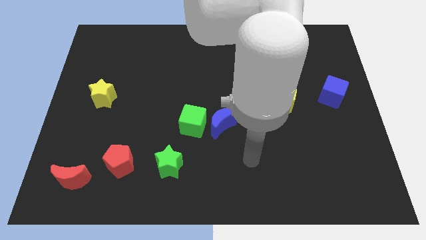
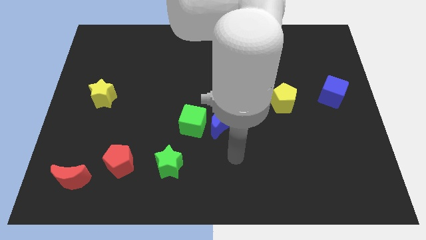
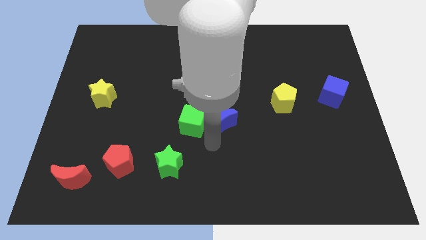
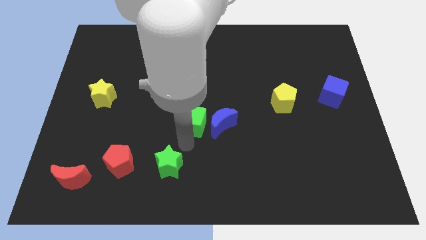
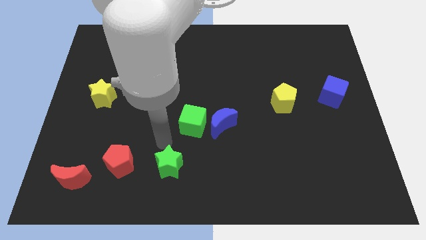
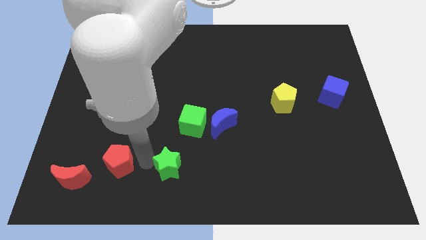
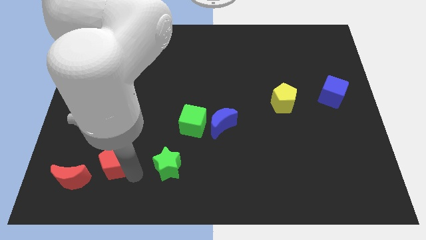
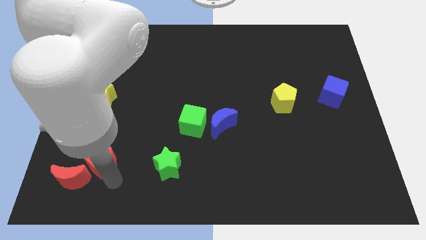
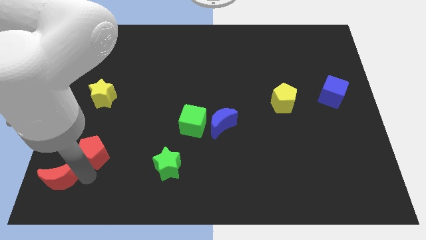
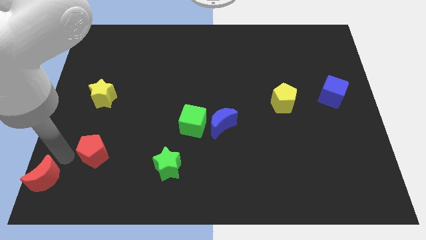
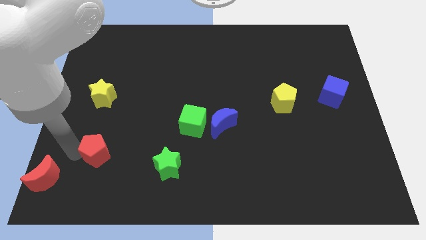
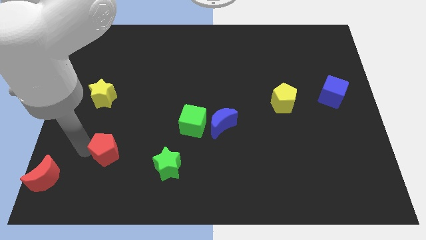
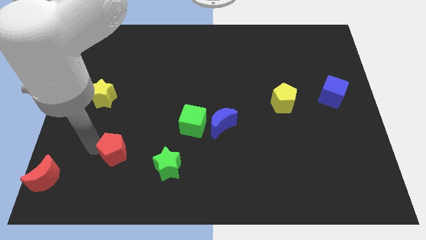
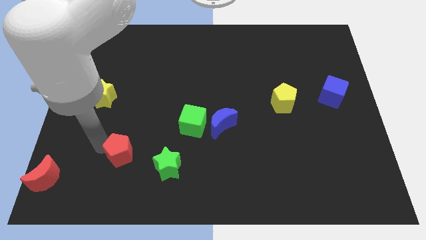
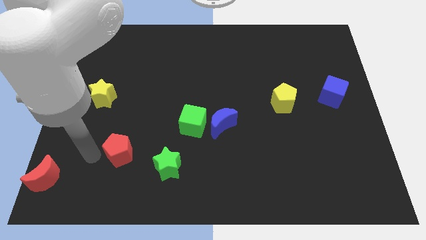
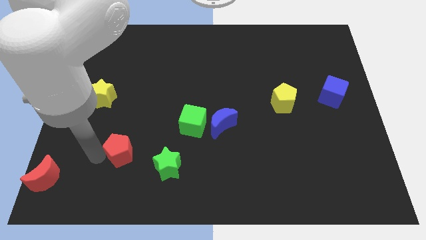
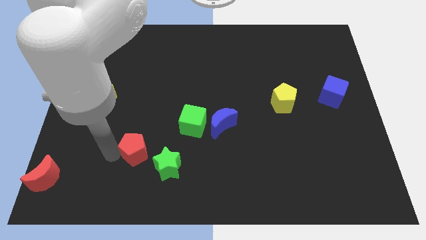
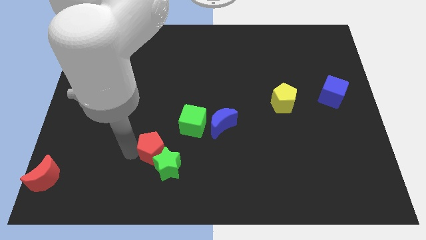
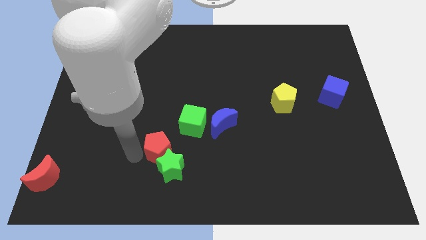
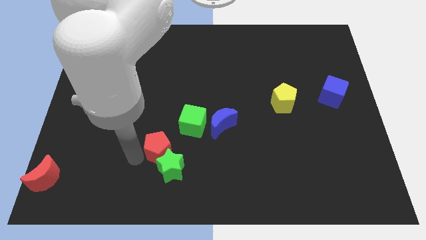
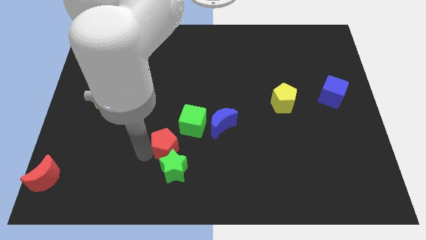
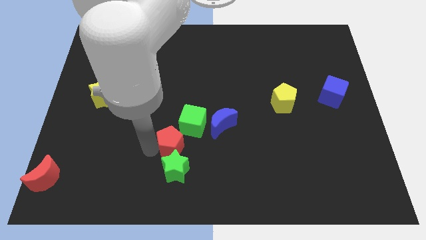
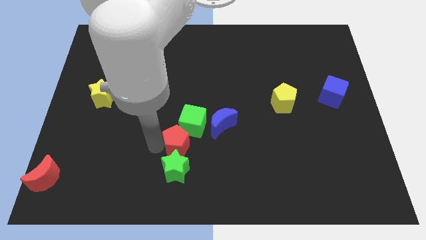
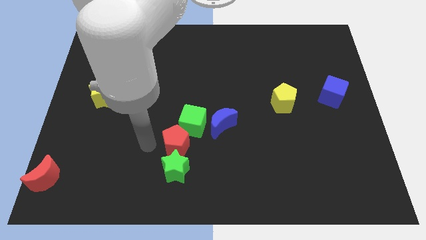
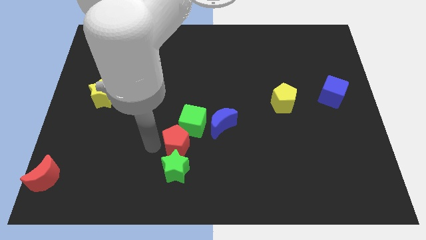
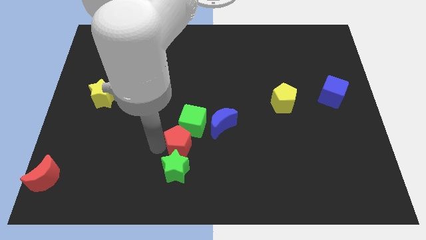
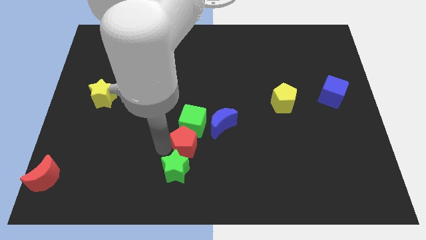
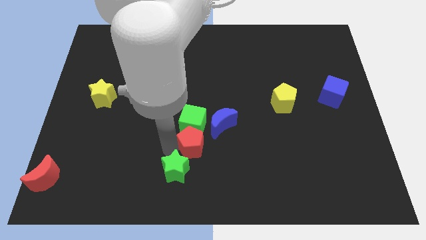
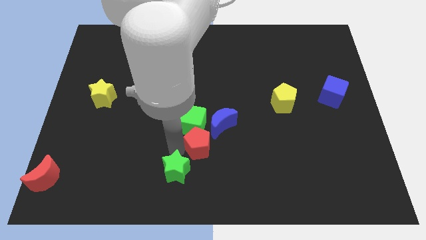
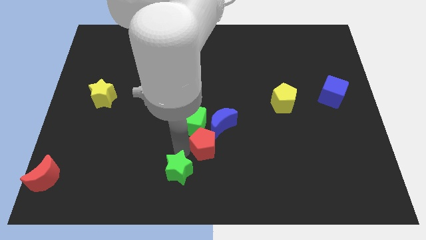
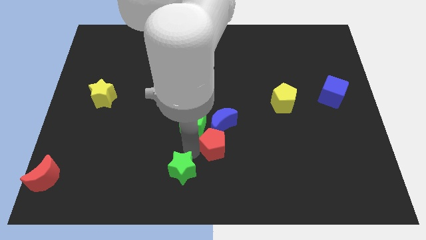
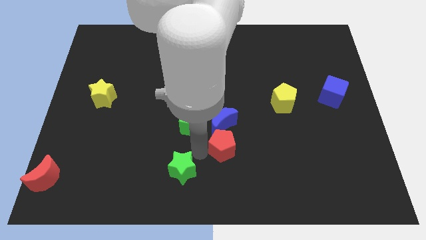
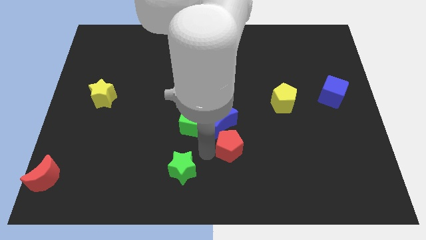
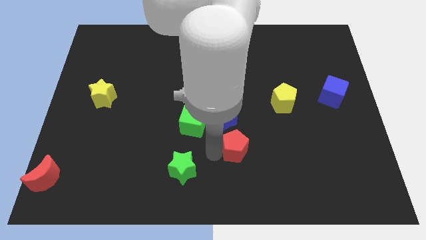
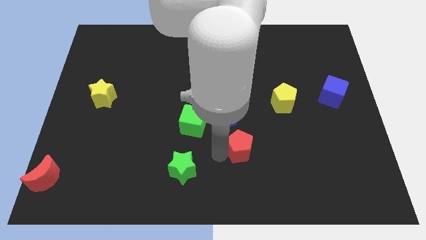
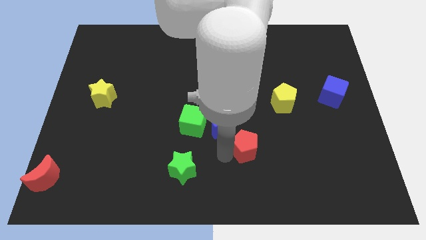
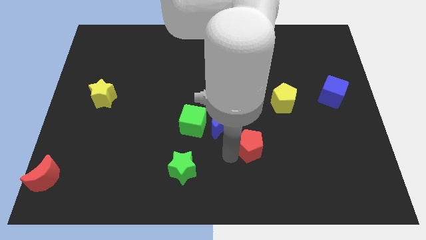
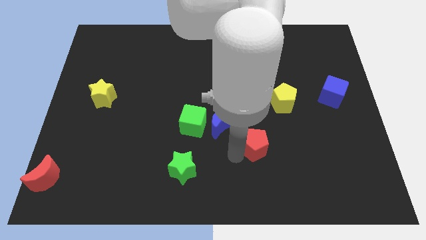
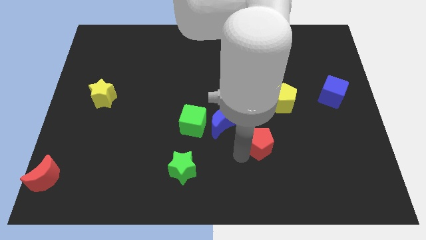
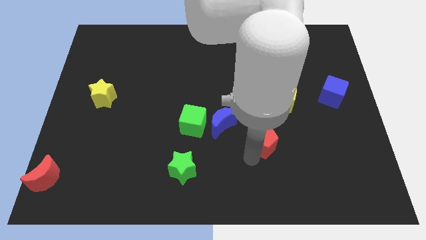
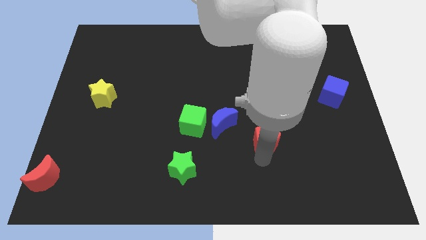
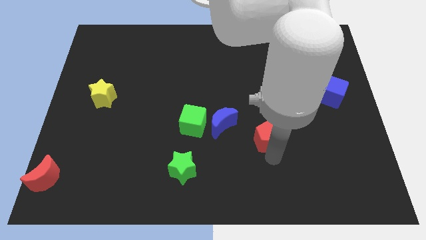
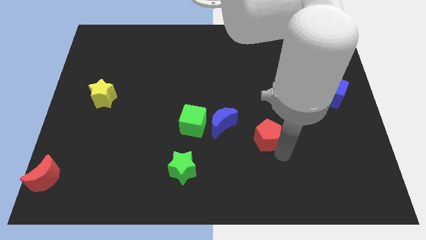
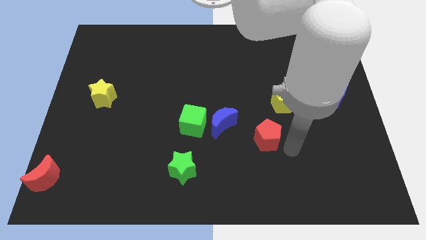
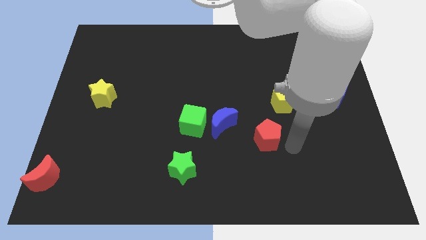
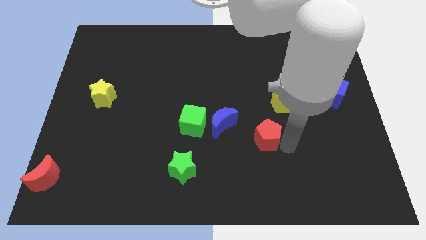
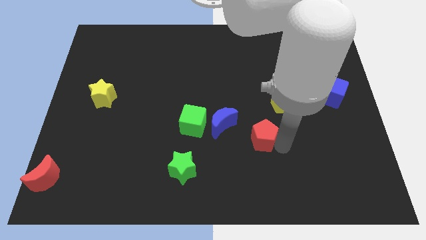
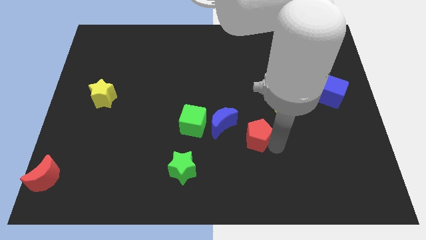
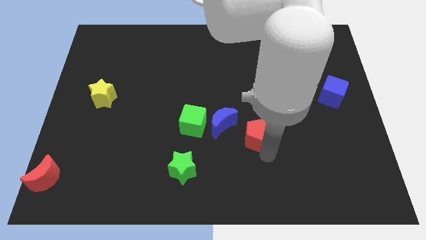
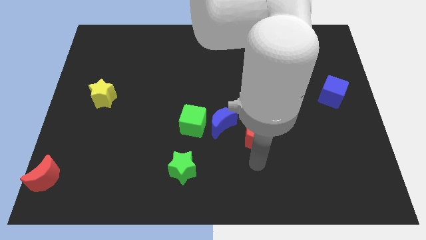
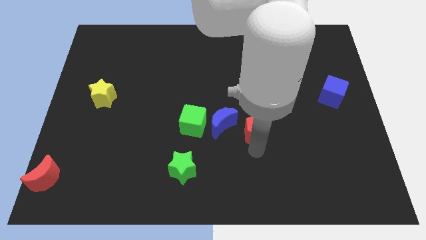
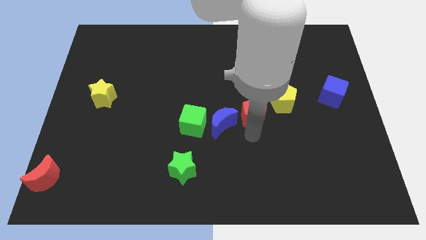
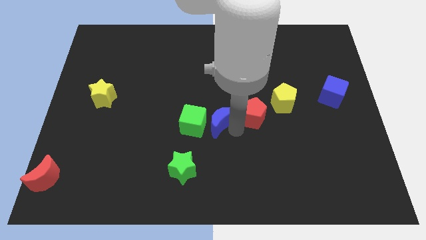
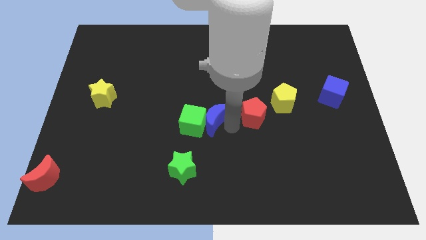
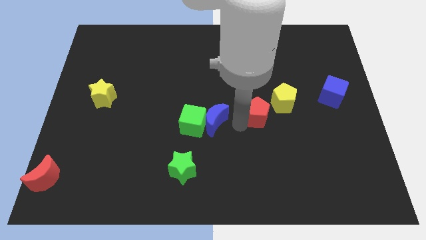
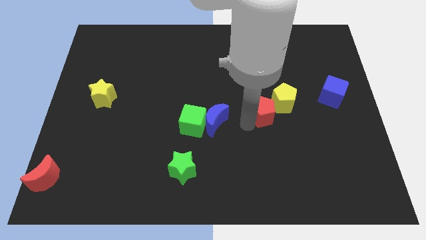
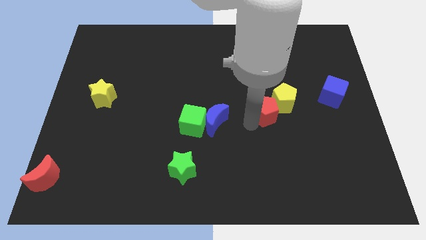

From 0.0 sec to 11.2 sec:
slide the red pentagon close to the yellow pentagon

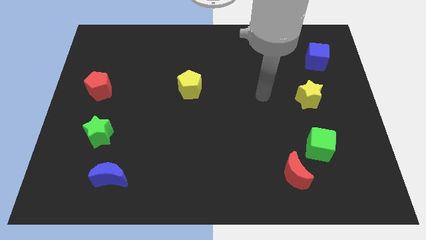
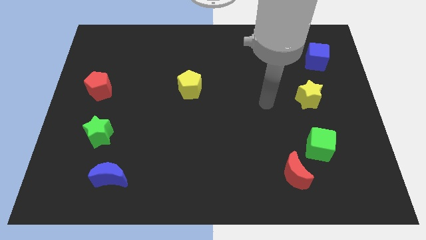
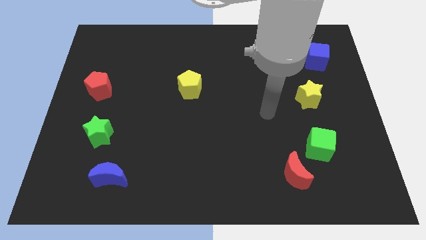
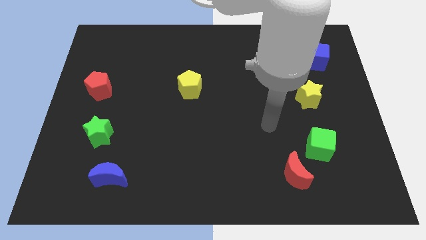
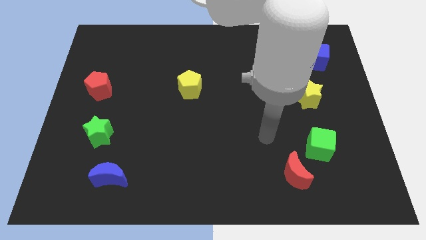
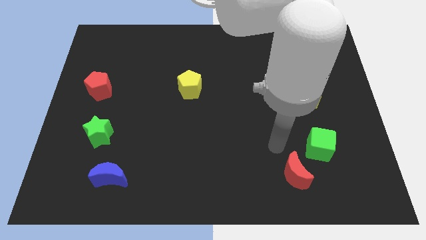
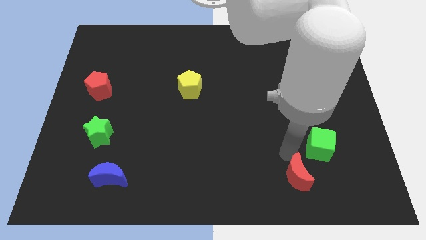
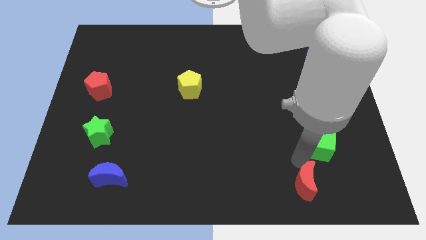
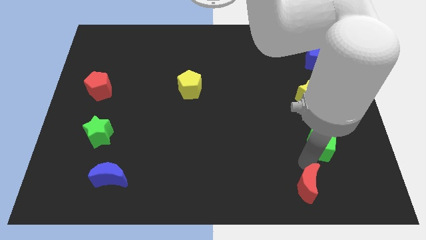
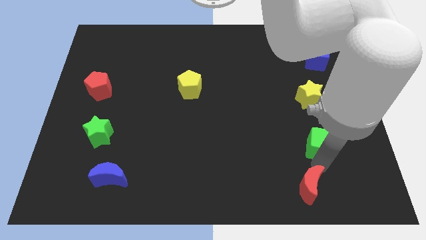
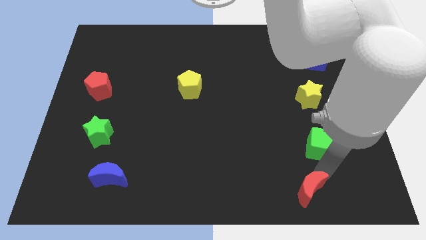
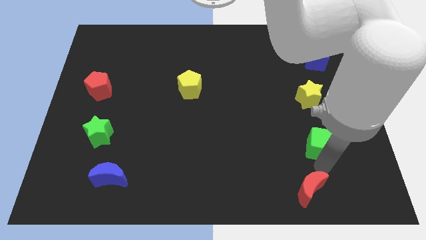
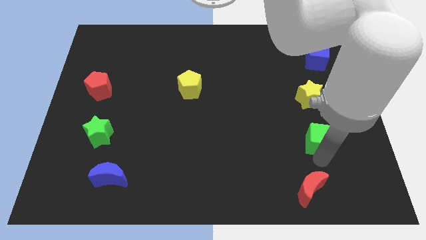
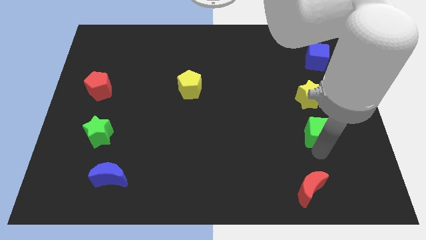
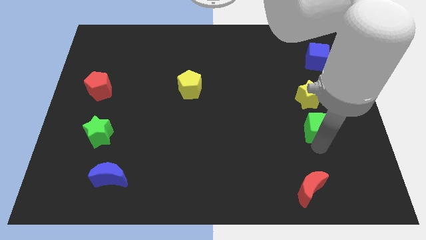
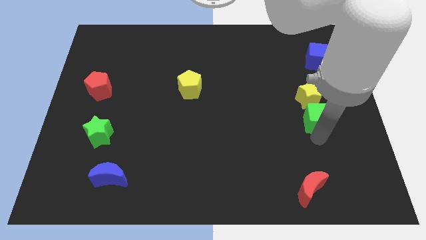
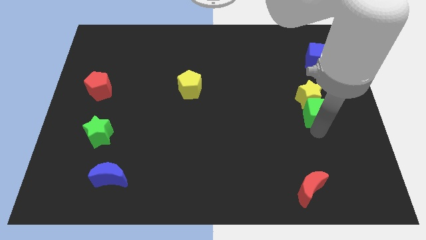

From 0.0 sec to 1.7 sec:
slide the green cube close to the yellow star
